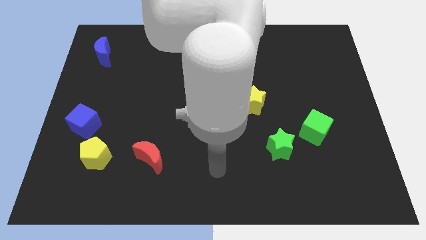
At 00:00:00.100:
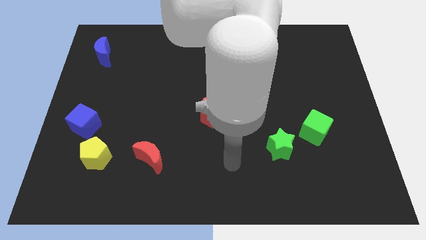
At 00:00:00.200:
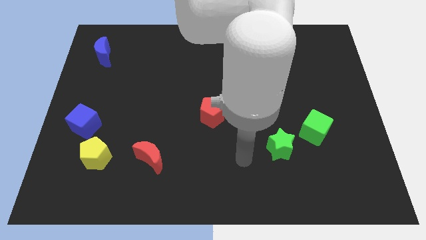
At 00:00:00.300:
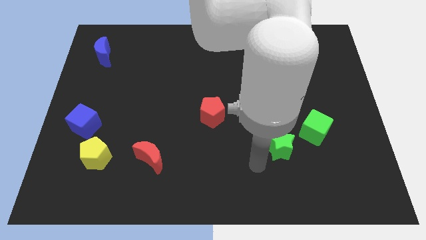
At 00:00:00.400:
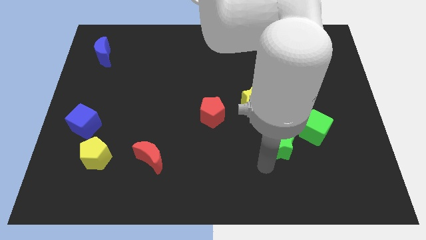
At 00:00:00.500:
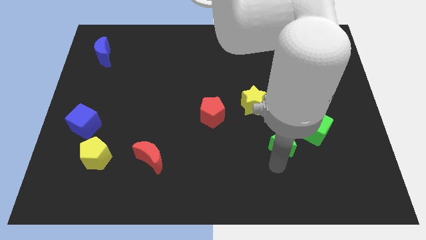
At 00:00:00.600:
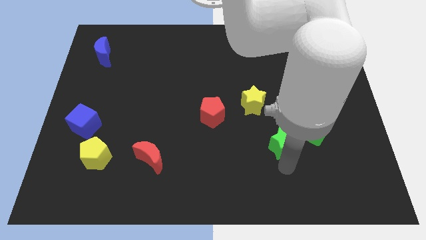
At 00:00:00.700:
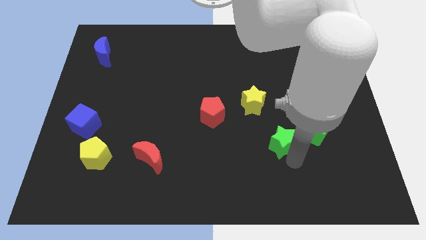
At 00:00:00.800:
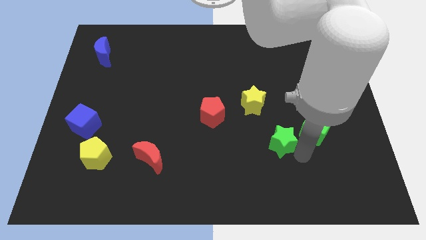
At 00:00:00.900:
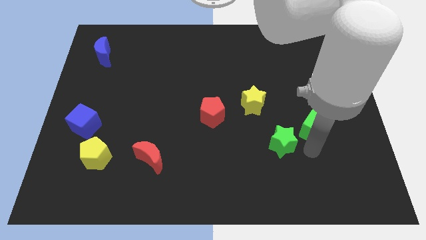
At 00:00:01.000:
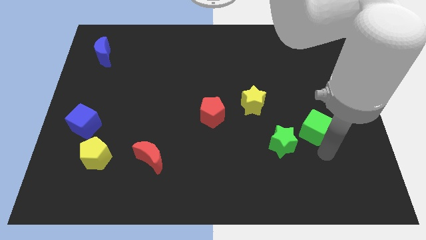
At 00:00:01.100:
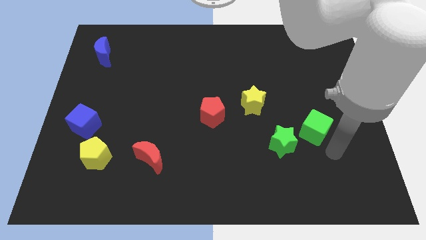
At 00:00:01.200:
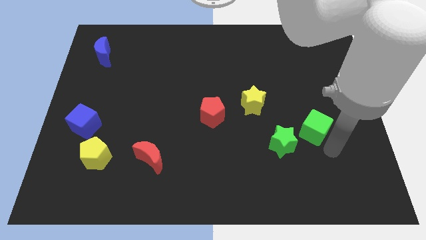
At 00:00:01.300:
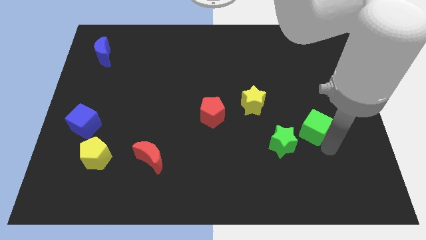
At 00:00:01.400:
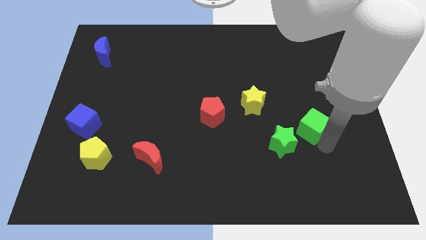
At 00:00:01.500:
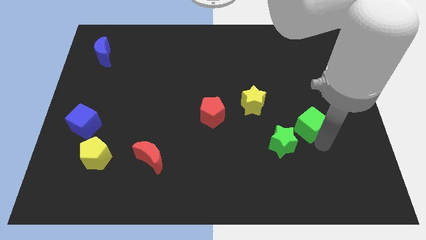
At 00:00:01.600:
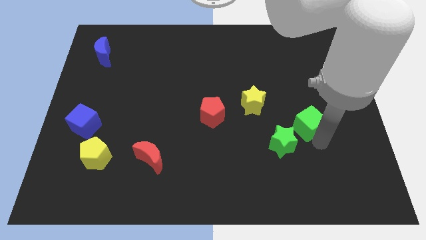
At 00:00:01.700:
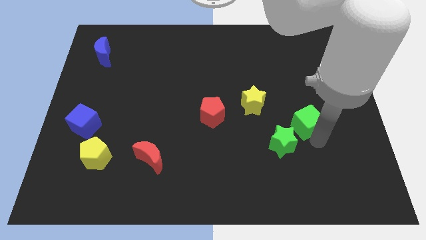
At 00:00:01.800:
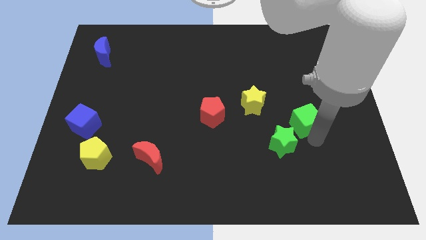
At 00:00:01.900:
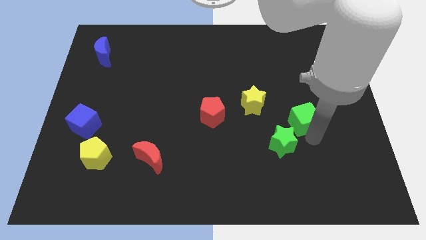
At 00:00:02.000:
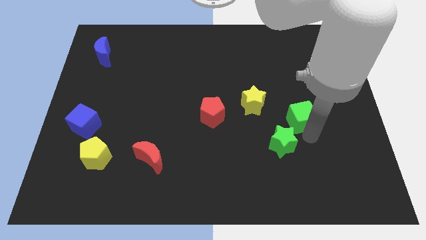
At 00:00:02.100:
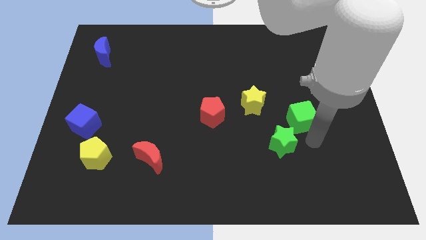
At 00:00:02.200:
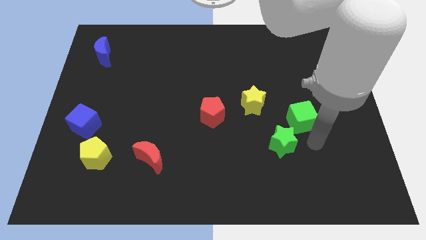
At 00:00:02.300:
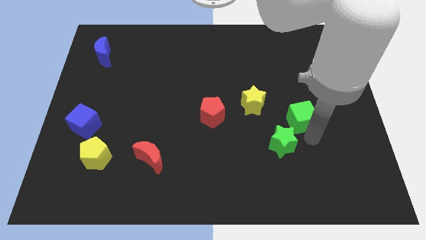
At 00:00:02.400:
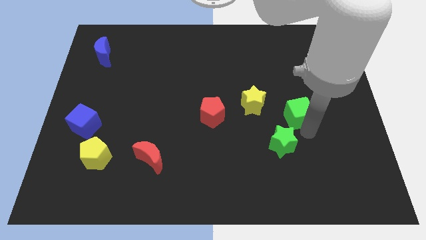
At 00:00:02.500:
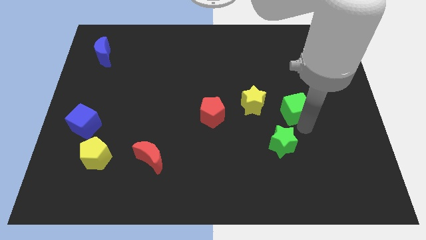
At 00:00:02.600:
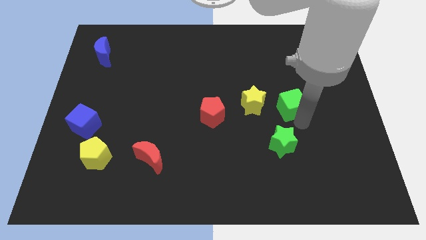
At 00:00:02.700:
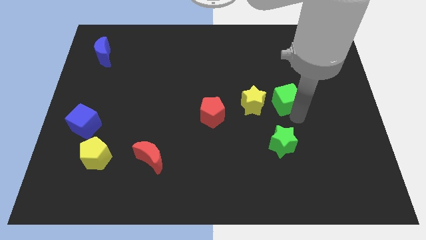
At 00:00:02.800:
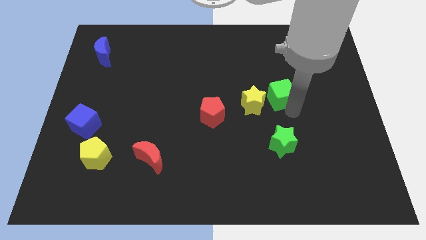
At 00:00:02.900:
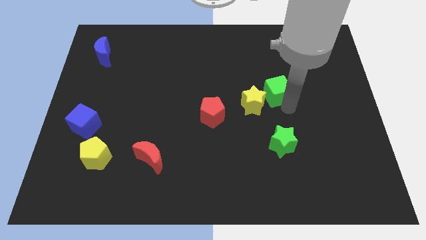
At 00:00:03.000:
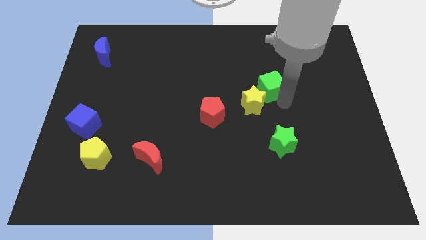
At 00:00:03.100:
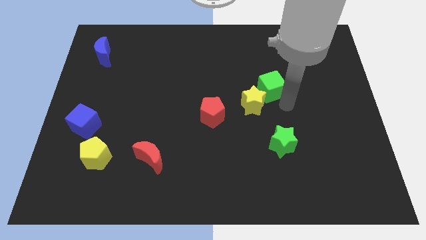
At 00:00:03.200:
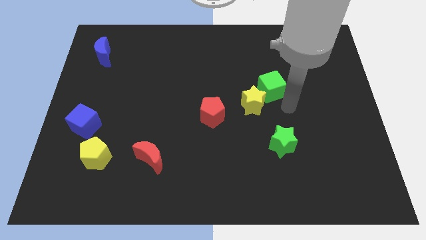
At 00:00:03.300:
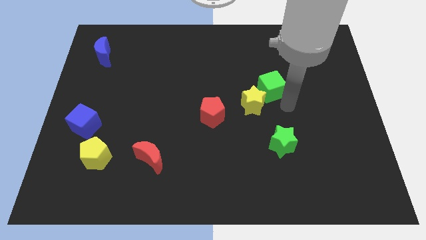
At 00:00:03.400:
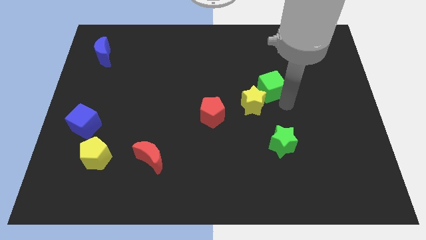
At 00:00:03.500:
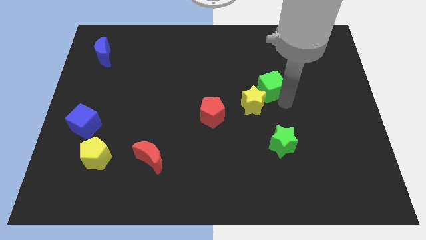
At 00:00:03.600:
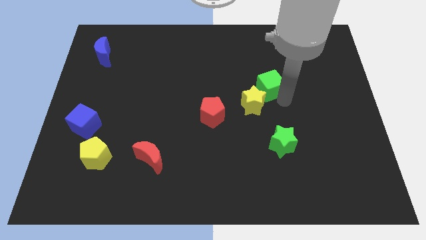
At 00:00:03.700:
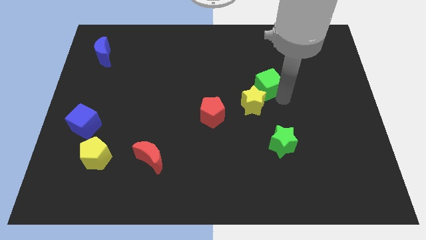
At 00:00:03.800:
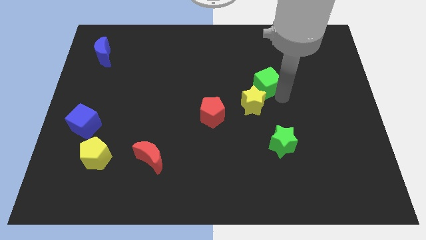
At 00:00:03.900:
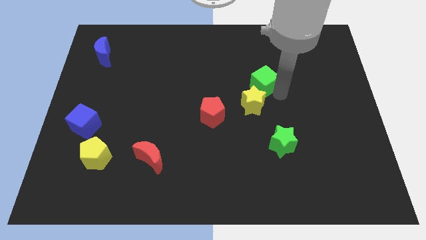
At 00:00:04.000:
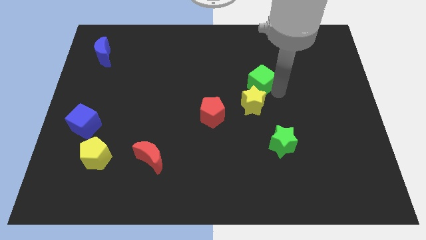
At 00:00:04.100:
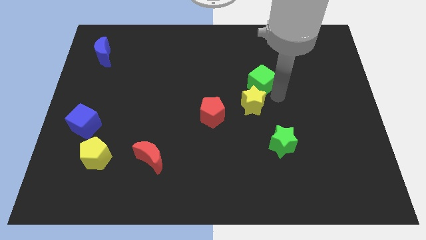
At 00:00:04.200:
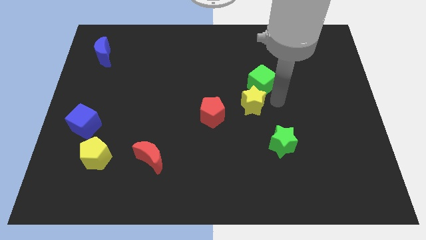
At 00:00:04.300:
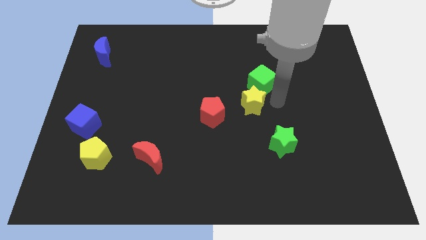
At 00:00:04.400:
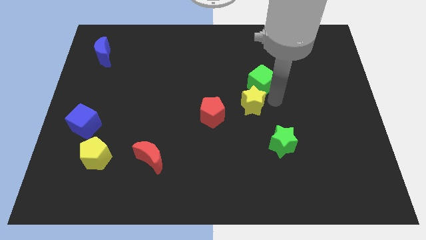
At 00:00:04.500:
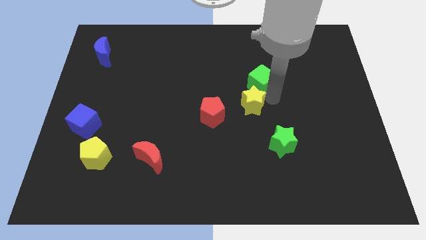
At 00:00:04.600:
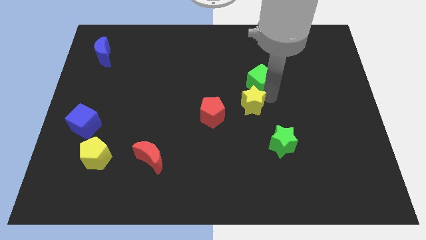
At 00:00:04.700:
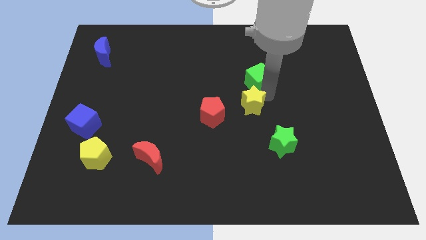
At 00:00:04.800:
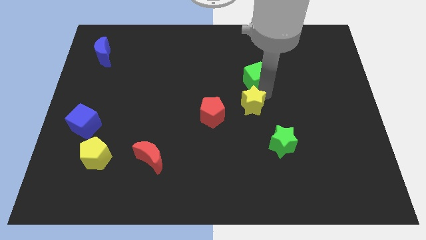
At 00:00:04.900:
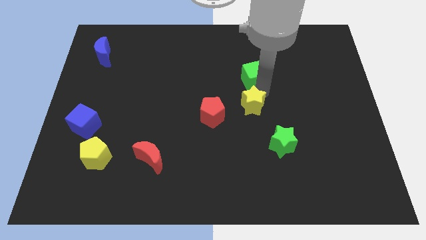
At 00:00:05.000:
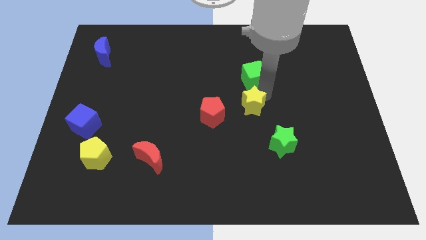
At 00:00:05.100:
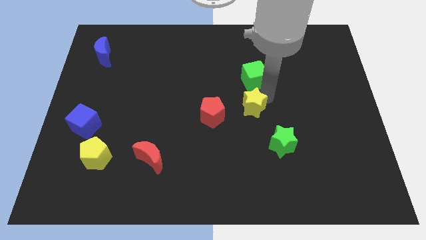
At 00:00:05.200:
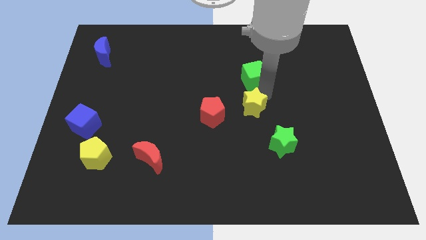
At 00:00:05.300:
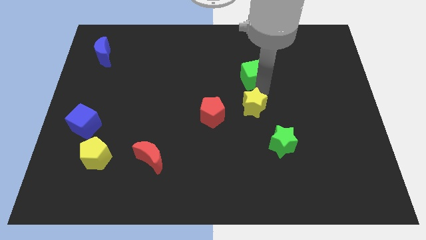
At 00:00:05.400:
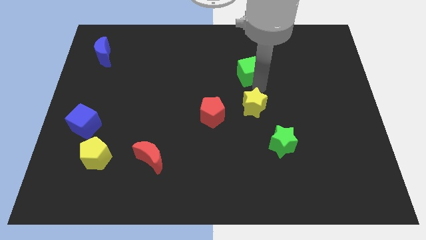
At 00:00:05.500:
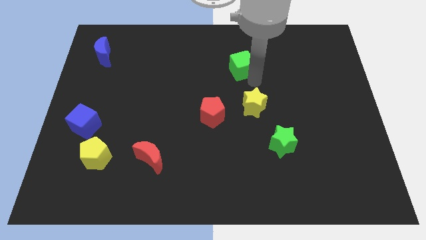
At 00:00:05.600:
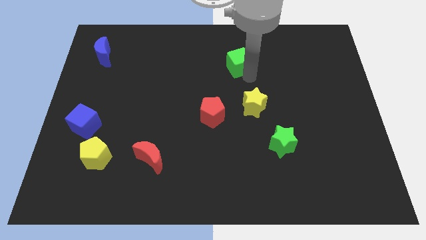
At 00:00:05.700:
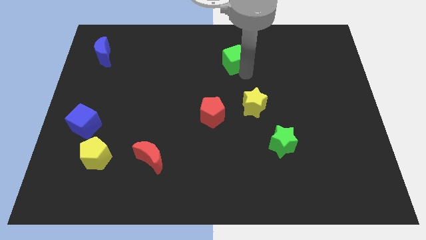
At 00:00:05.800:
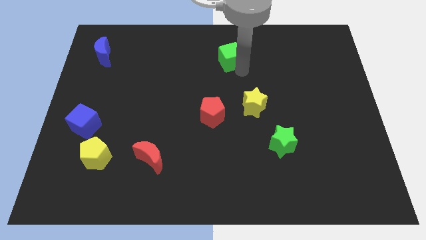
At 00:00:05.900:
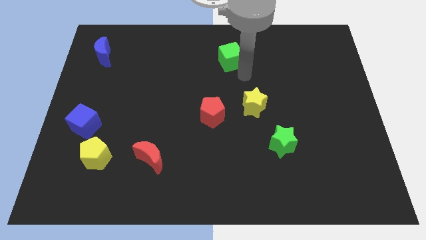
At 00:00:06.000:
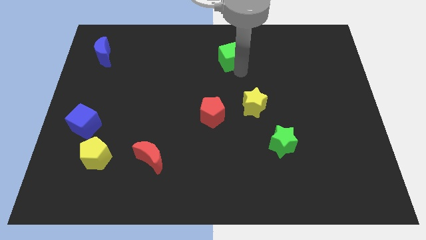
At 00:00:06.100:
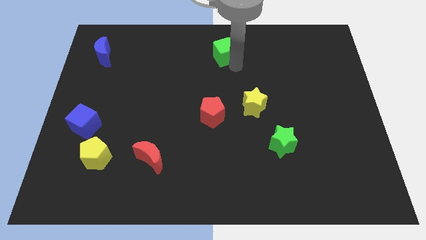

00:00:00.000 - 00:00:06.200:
put the green cube to the towards your base

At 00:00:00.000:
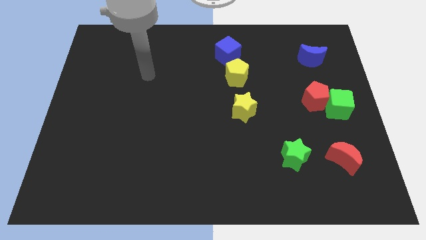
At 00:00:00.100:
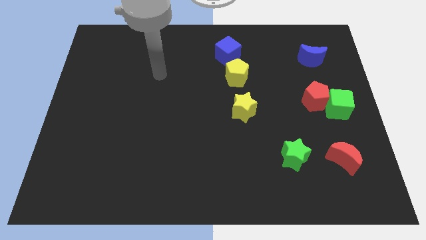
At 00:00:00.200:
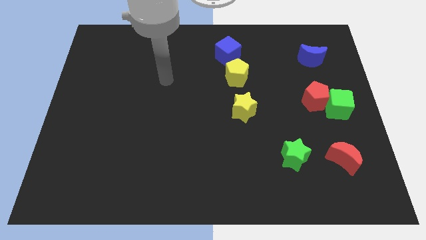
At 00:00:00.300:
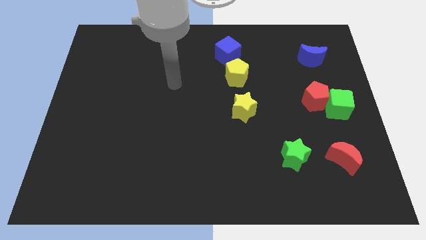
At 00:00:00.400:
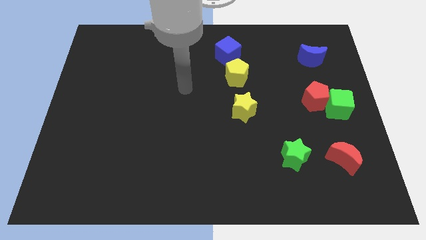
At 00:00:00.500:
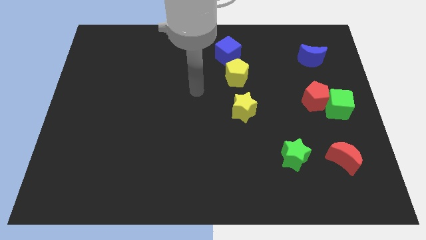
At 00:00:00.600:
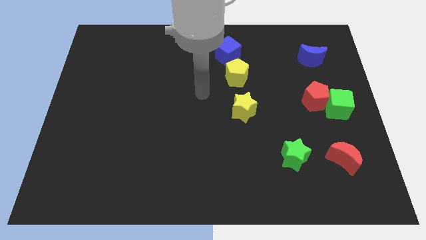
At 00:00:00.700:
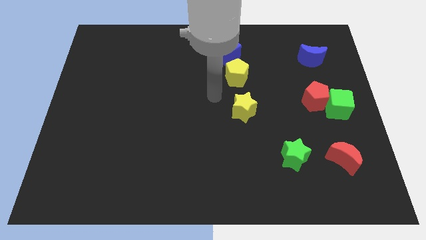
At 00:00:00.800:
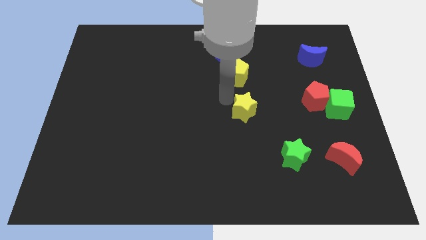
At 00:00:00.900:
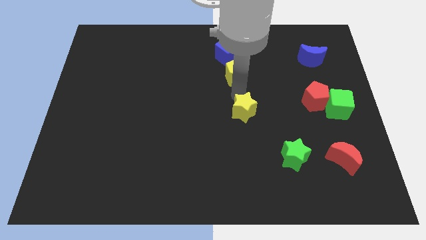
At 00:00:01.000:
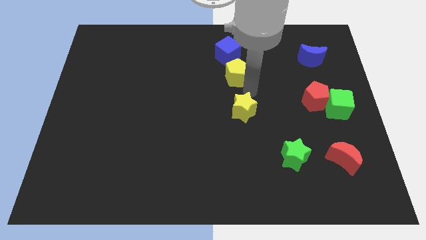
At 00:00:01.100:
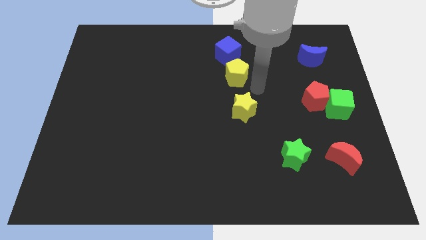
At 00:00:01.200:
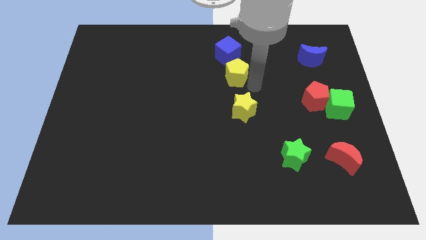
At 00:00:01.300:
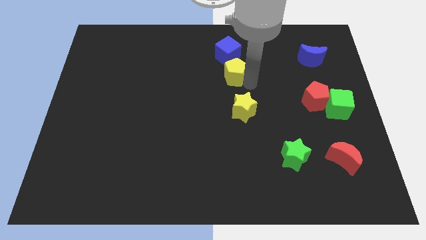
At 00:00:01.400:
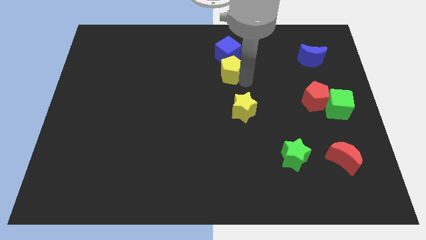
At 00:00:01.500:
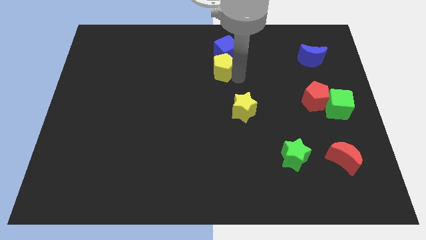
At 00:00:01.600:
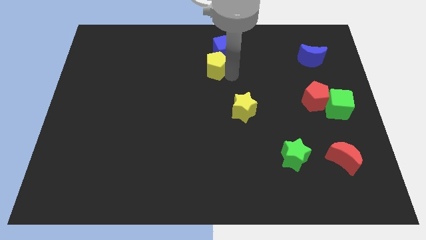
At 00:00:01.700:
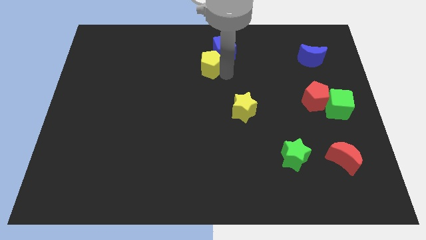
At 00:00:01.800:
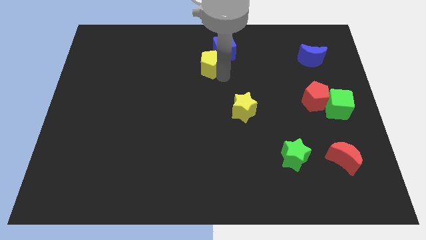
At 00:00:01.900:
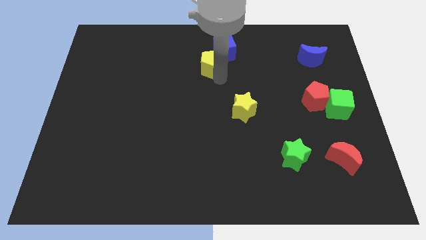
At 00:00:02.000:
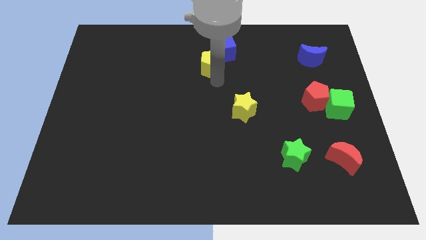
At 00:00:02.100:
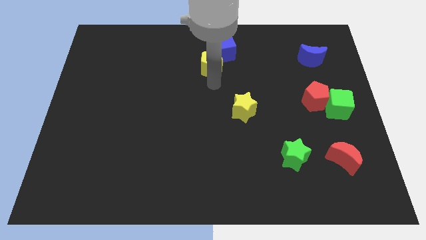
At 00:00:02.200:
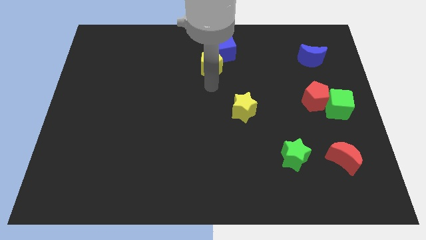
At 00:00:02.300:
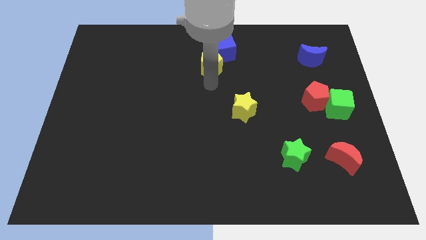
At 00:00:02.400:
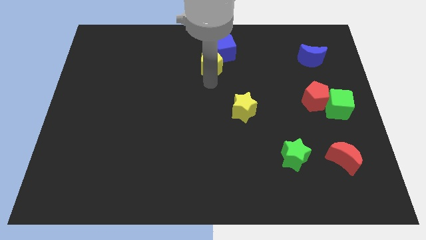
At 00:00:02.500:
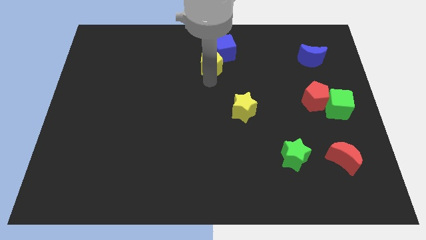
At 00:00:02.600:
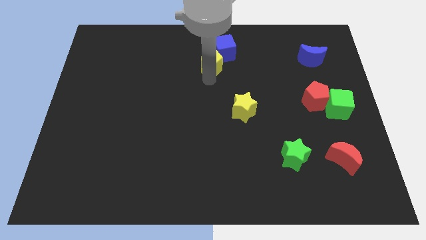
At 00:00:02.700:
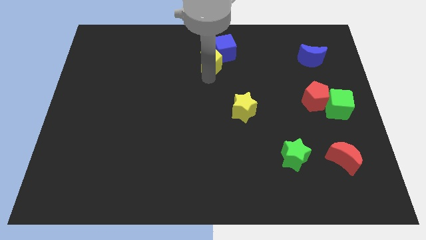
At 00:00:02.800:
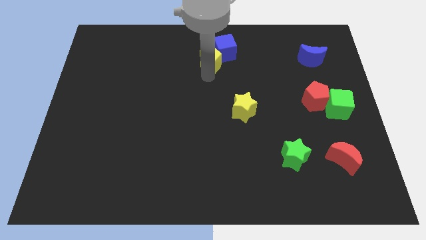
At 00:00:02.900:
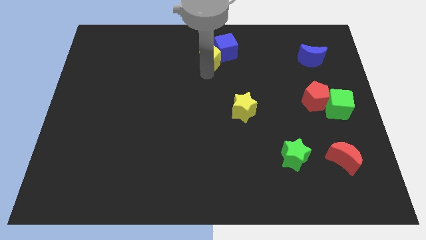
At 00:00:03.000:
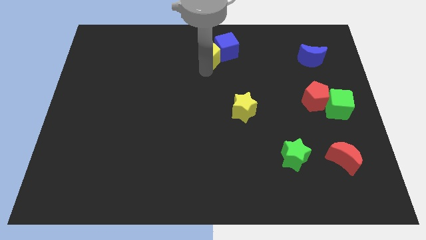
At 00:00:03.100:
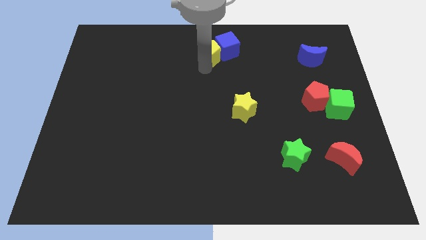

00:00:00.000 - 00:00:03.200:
put the yellow pentagon to the towards your base
